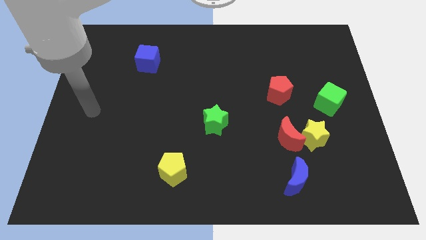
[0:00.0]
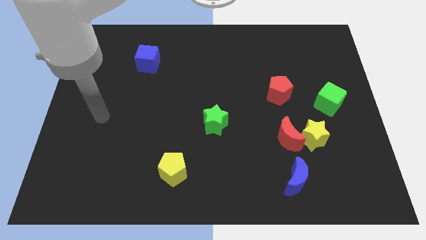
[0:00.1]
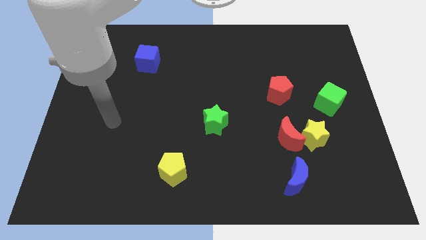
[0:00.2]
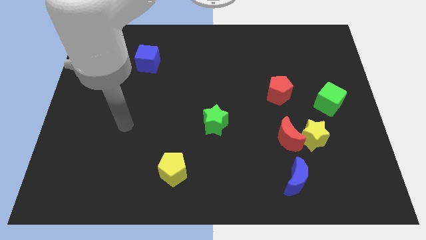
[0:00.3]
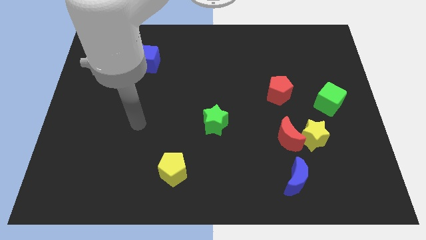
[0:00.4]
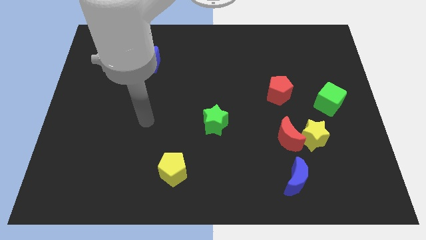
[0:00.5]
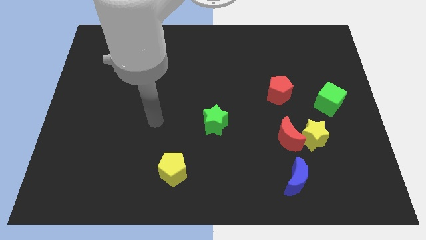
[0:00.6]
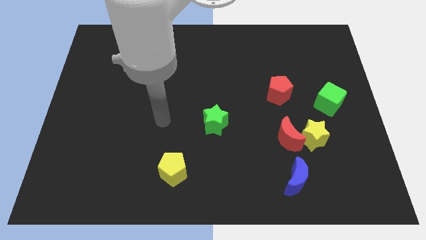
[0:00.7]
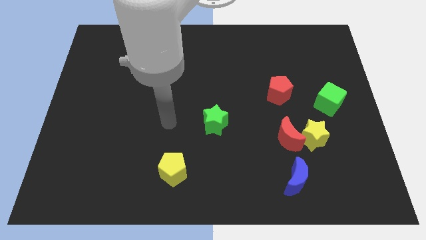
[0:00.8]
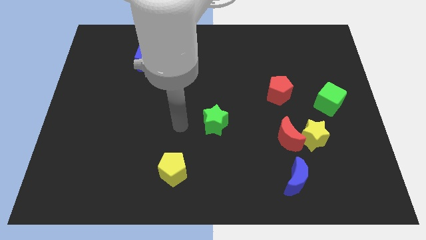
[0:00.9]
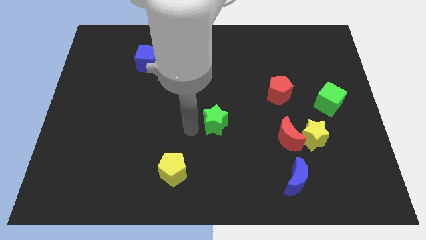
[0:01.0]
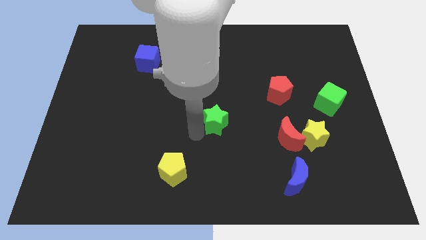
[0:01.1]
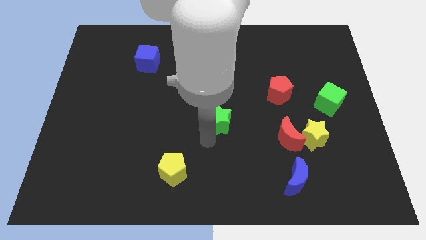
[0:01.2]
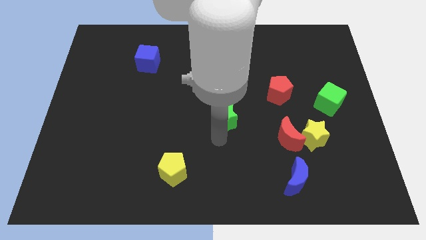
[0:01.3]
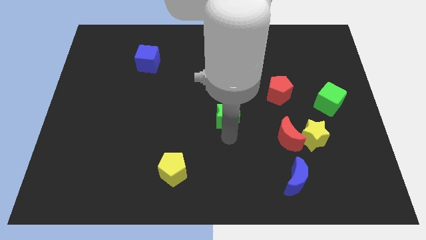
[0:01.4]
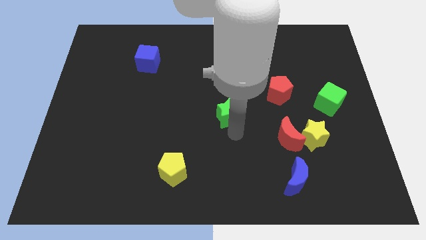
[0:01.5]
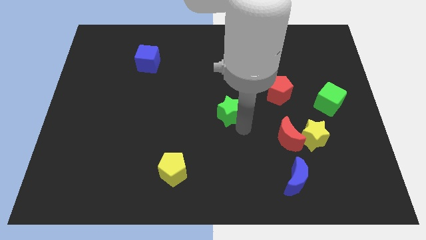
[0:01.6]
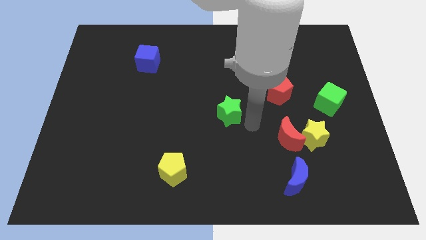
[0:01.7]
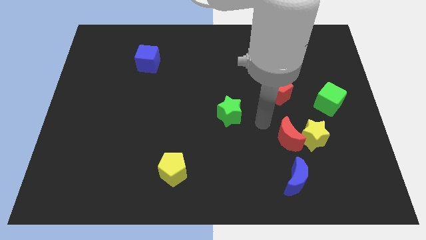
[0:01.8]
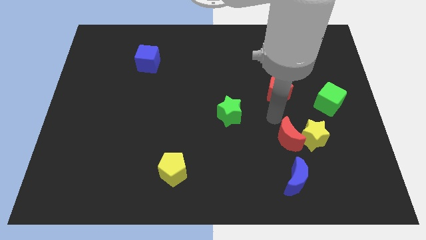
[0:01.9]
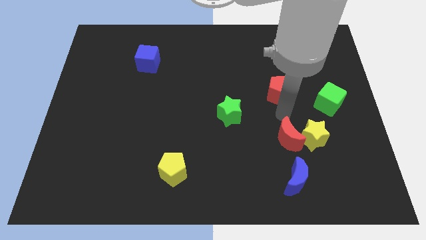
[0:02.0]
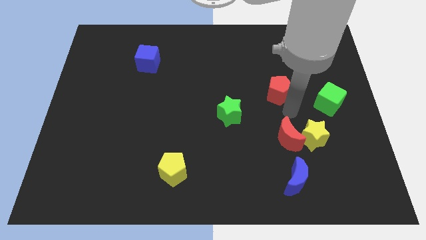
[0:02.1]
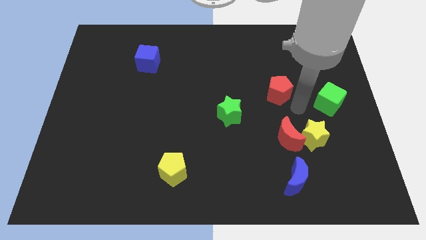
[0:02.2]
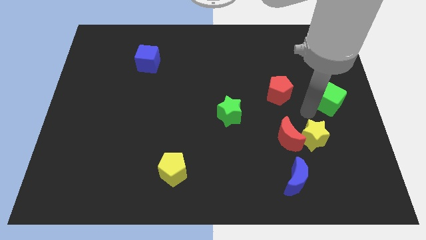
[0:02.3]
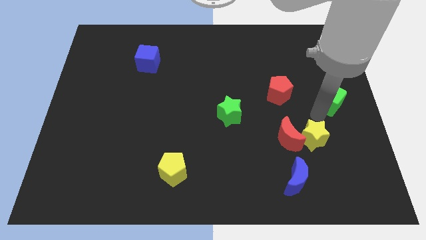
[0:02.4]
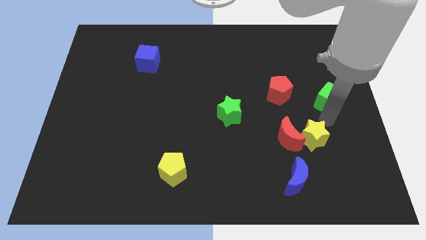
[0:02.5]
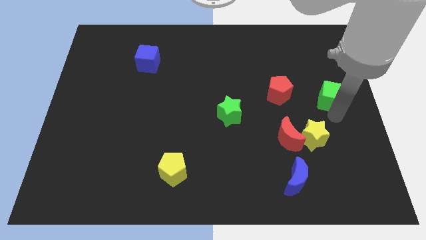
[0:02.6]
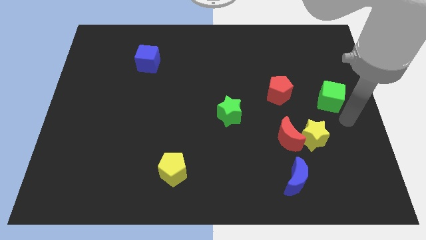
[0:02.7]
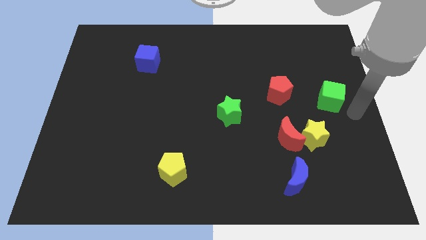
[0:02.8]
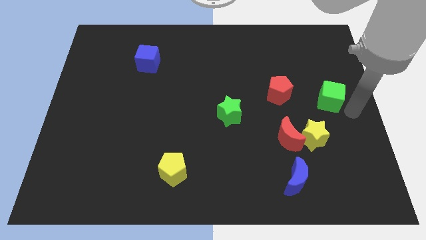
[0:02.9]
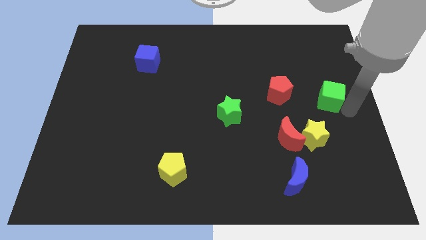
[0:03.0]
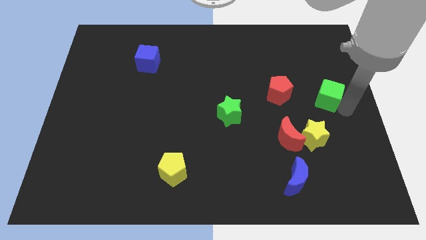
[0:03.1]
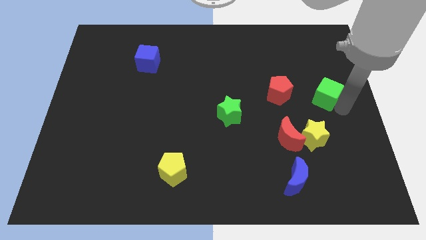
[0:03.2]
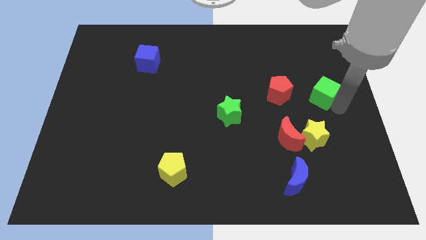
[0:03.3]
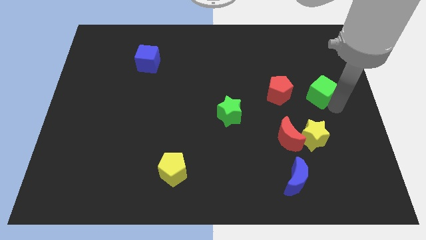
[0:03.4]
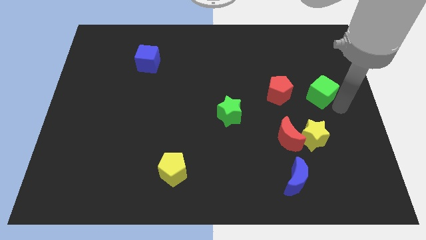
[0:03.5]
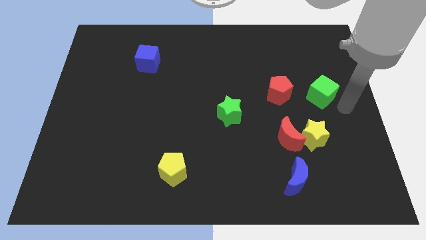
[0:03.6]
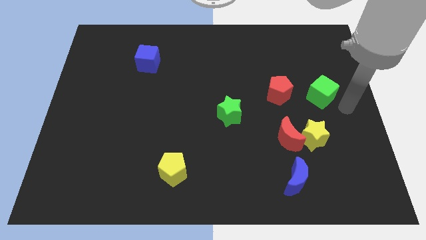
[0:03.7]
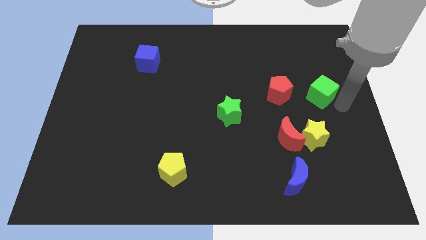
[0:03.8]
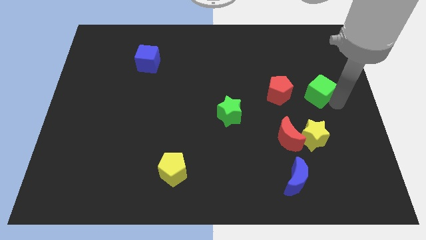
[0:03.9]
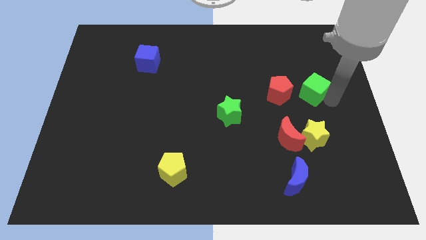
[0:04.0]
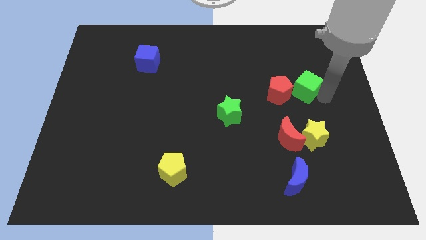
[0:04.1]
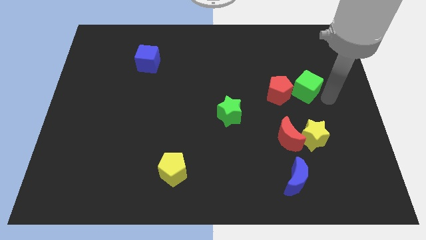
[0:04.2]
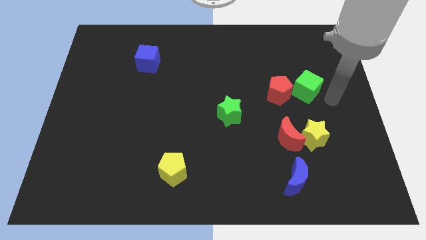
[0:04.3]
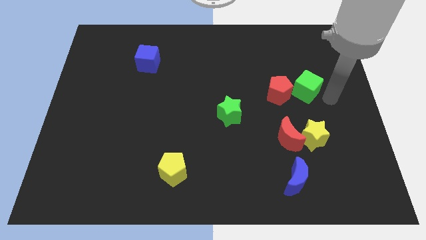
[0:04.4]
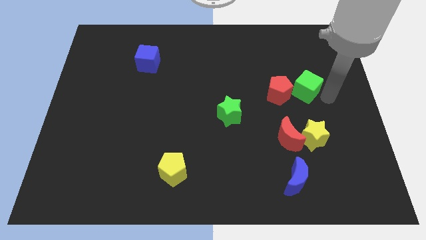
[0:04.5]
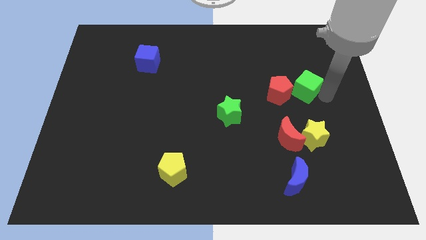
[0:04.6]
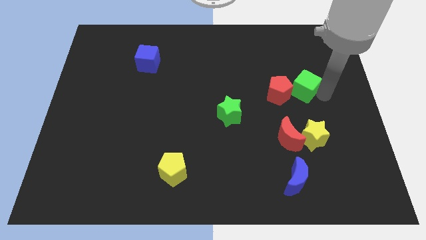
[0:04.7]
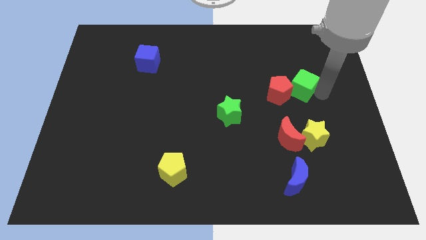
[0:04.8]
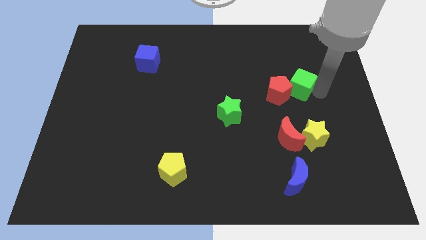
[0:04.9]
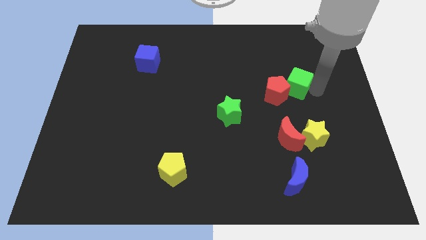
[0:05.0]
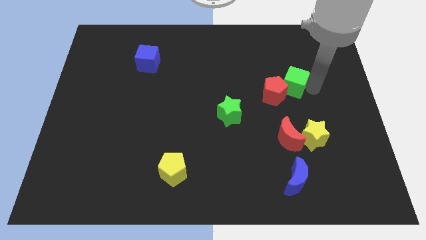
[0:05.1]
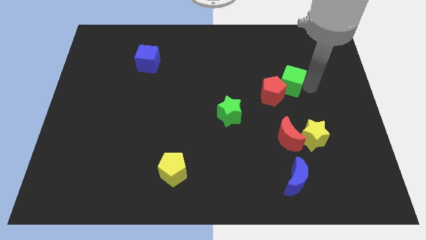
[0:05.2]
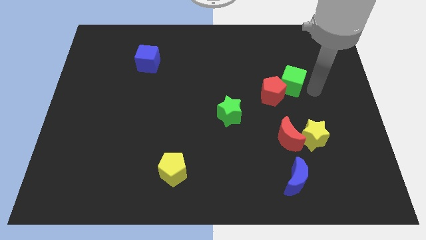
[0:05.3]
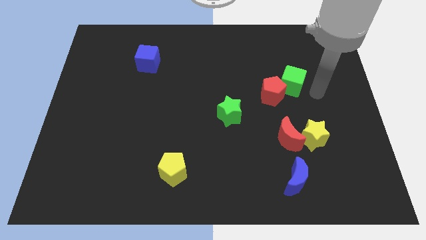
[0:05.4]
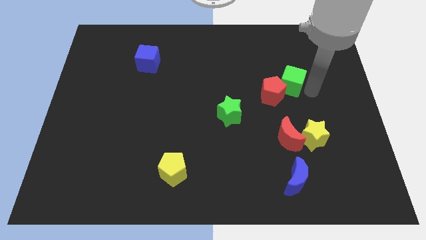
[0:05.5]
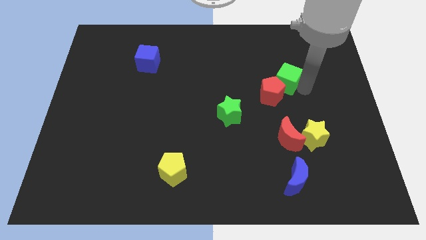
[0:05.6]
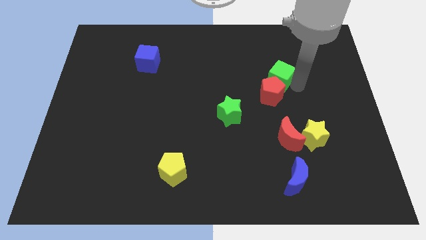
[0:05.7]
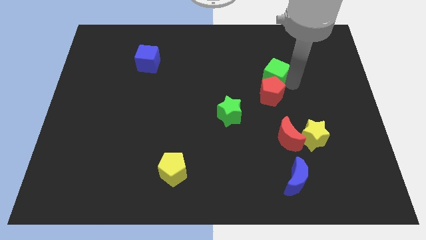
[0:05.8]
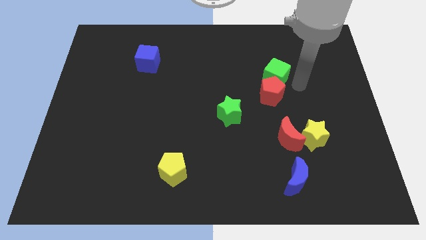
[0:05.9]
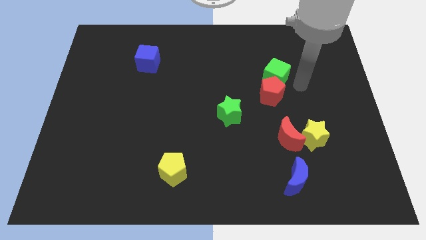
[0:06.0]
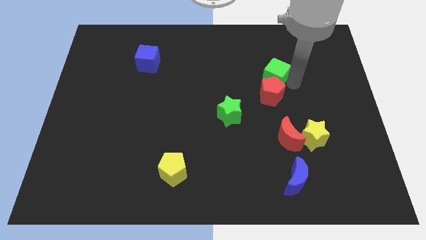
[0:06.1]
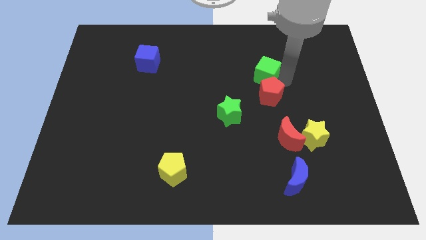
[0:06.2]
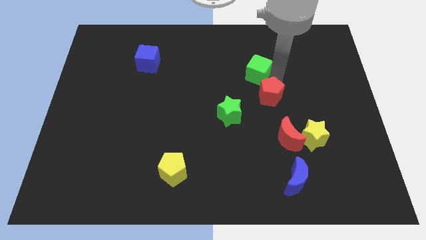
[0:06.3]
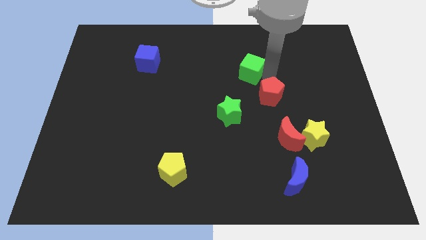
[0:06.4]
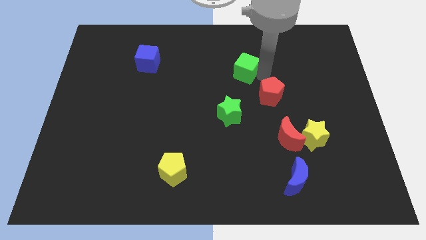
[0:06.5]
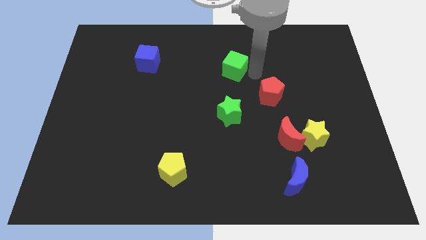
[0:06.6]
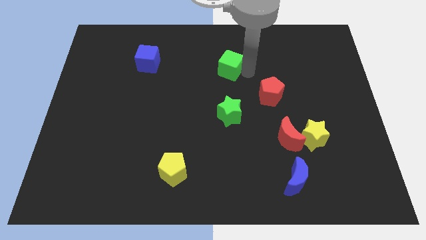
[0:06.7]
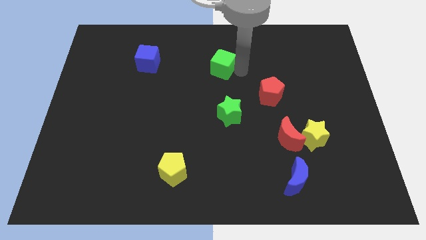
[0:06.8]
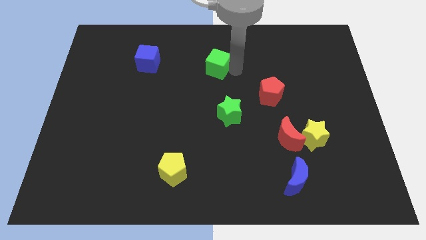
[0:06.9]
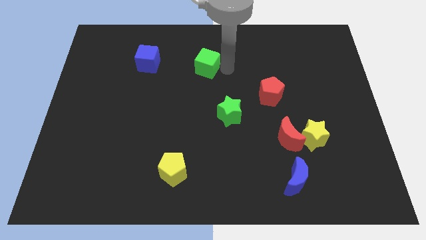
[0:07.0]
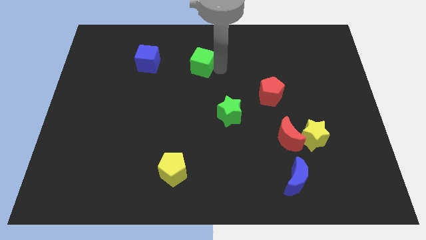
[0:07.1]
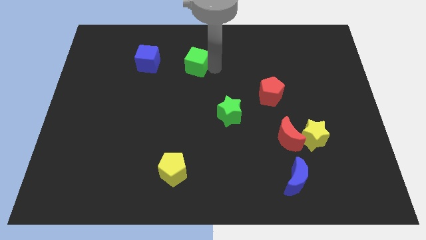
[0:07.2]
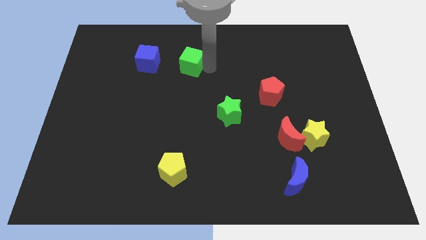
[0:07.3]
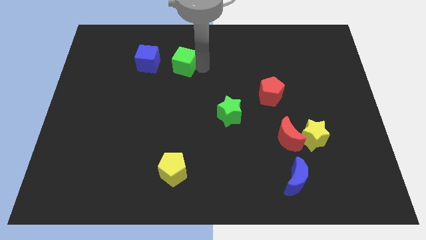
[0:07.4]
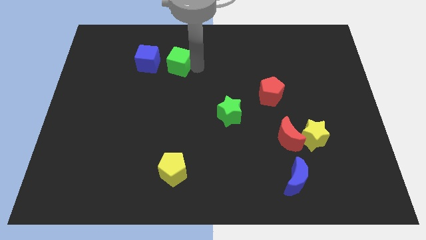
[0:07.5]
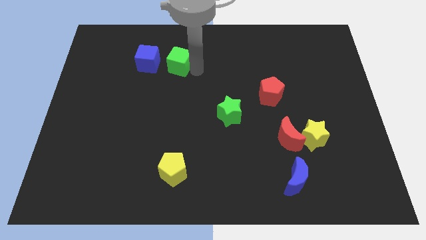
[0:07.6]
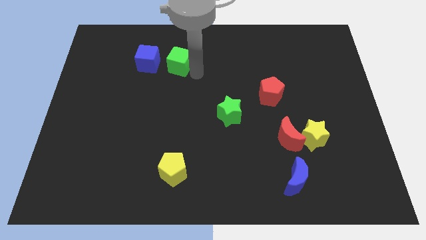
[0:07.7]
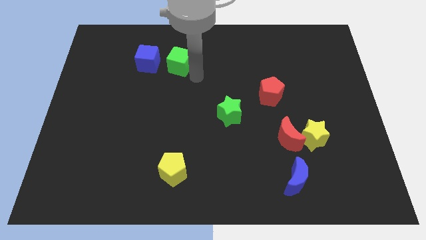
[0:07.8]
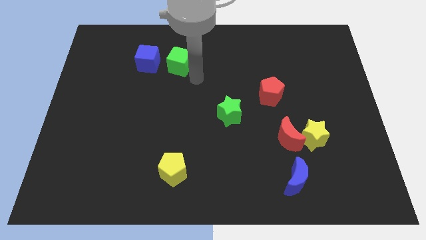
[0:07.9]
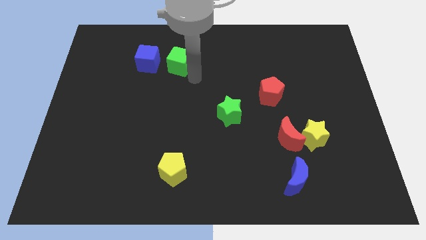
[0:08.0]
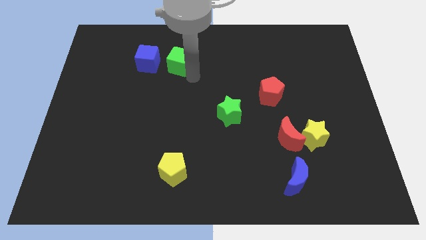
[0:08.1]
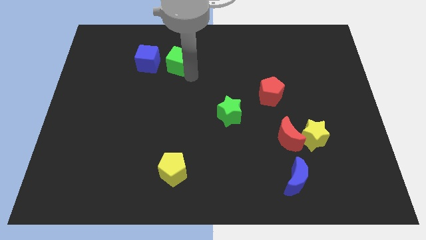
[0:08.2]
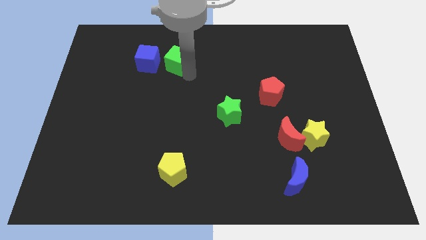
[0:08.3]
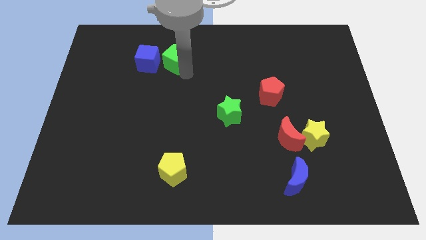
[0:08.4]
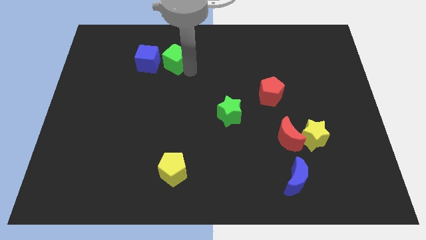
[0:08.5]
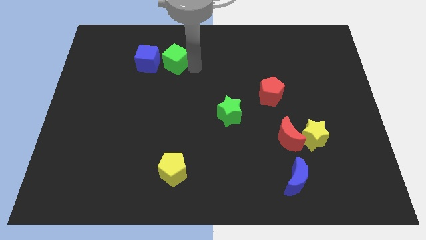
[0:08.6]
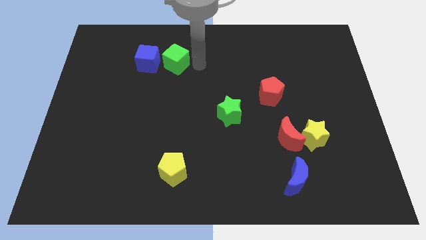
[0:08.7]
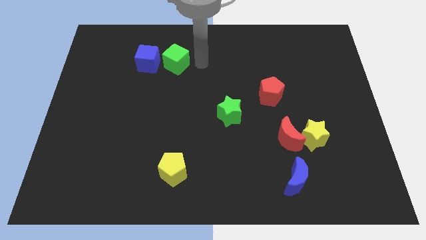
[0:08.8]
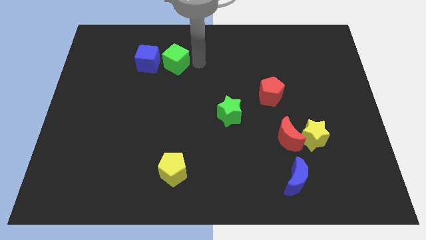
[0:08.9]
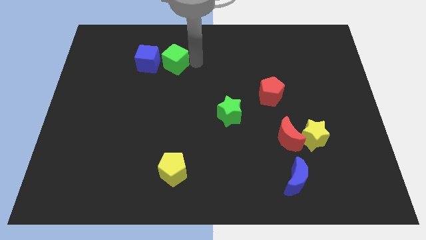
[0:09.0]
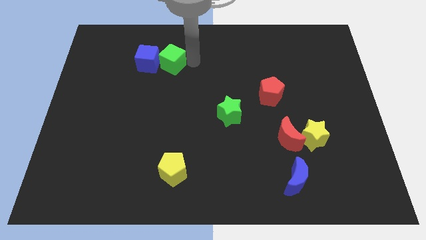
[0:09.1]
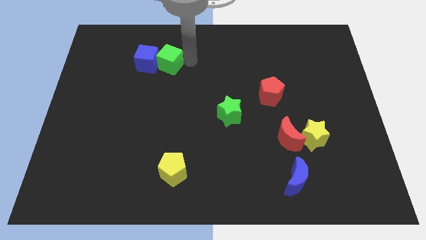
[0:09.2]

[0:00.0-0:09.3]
slide the green cube to the blue cube
